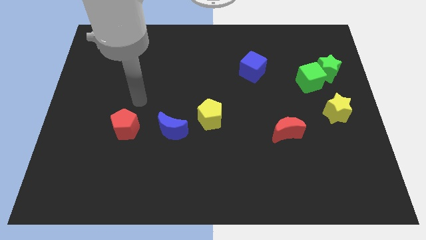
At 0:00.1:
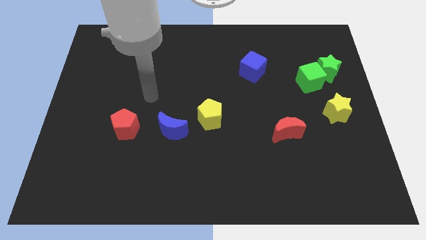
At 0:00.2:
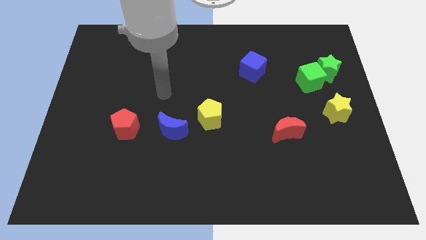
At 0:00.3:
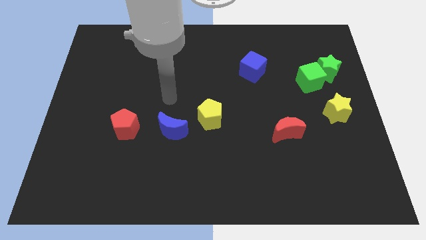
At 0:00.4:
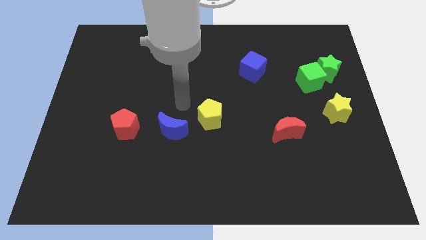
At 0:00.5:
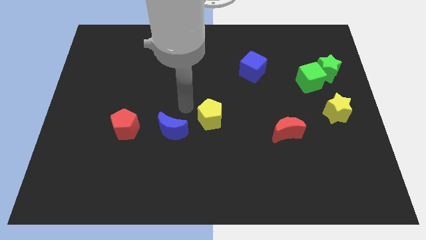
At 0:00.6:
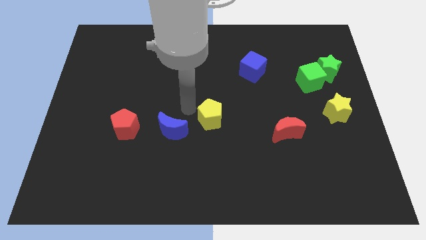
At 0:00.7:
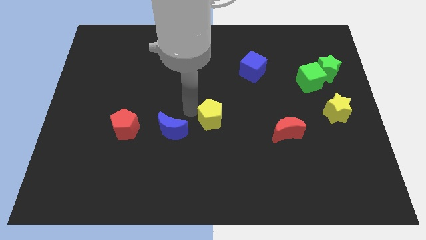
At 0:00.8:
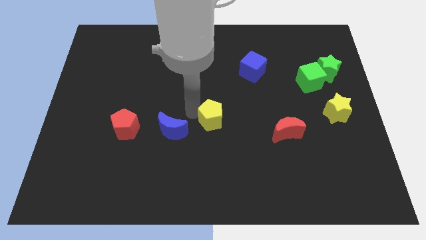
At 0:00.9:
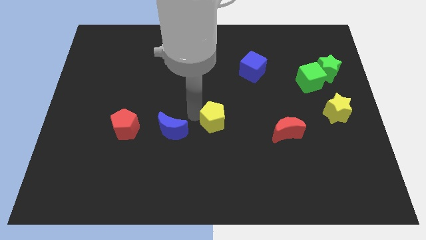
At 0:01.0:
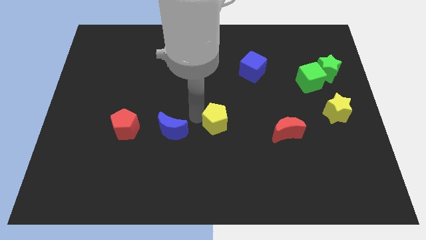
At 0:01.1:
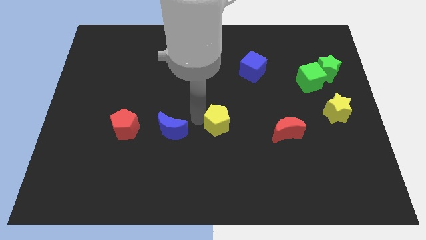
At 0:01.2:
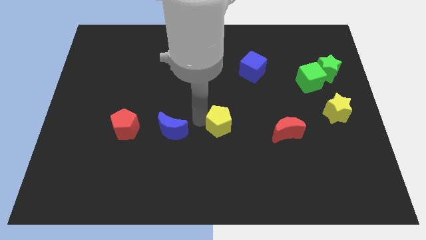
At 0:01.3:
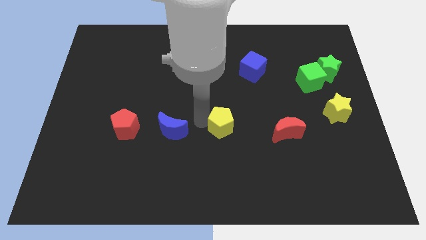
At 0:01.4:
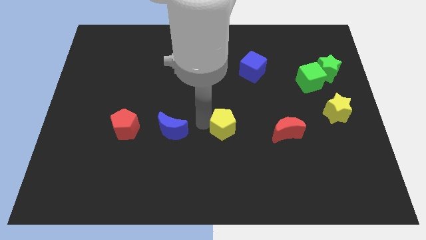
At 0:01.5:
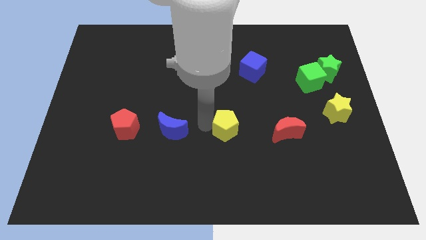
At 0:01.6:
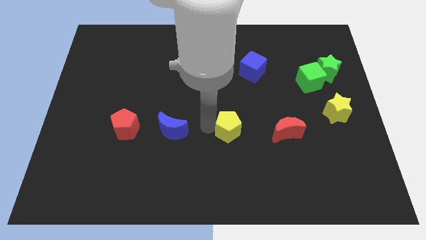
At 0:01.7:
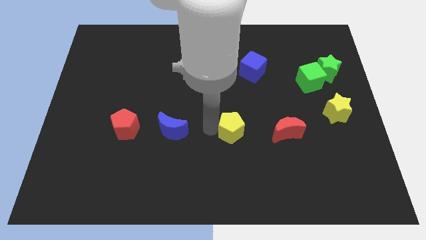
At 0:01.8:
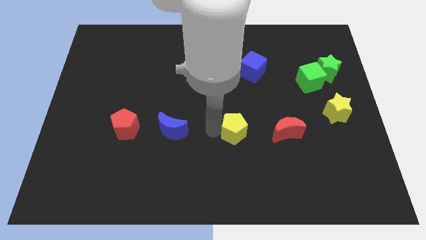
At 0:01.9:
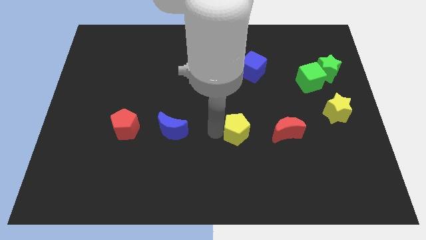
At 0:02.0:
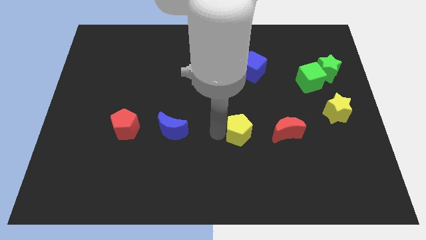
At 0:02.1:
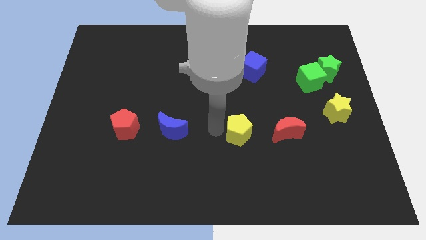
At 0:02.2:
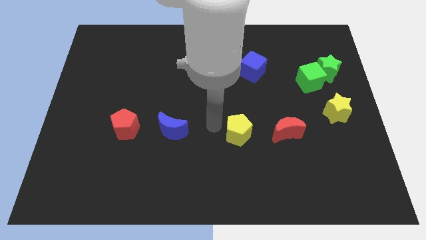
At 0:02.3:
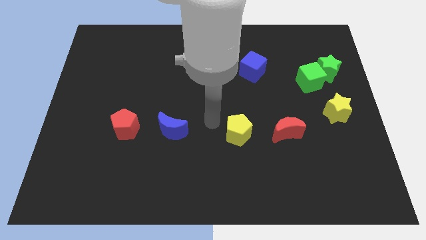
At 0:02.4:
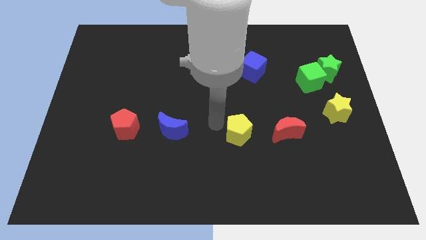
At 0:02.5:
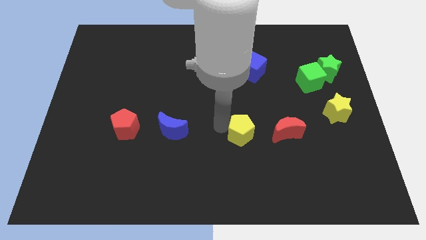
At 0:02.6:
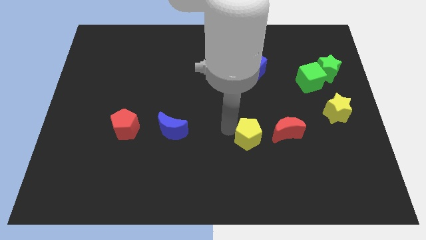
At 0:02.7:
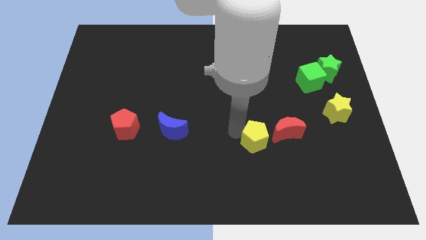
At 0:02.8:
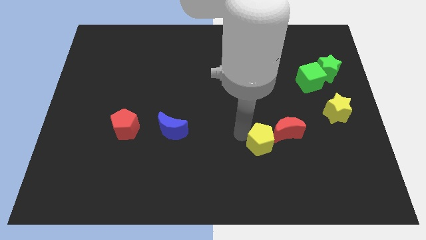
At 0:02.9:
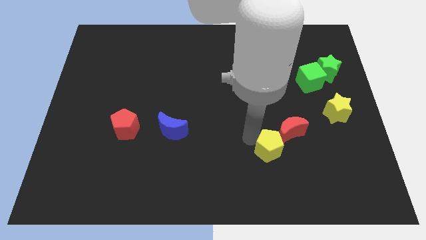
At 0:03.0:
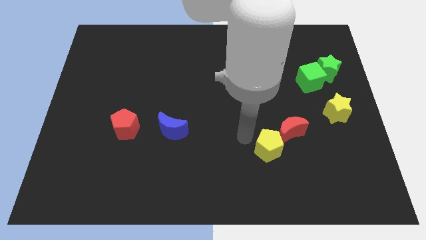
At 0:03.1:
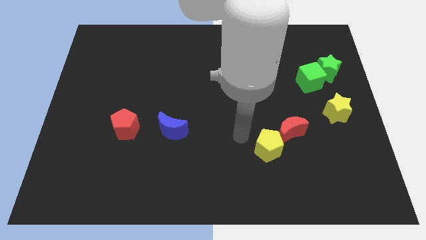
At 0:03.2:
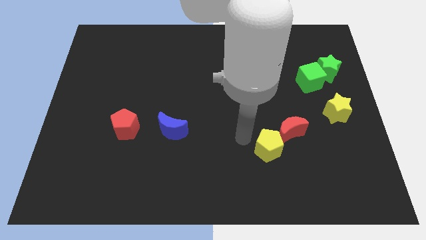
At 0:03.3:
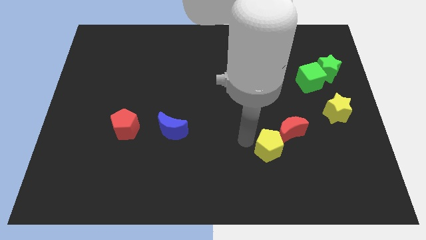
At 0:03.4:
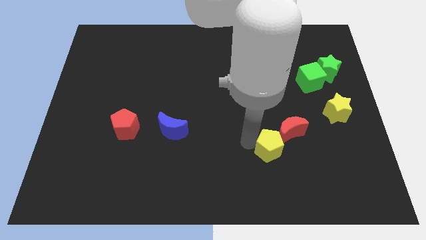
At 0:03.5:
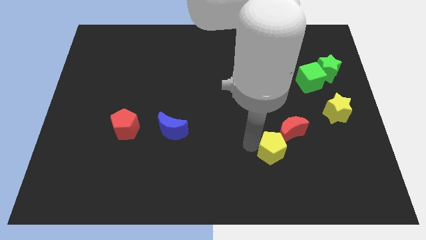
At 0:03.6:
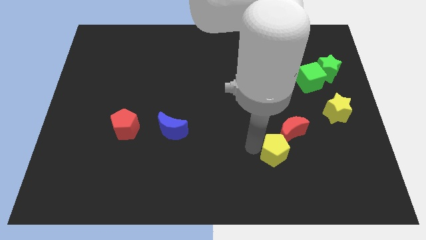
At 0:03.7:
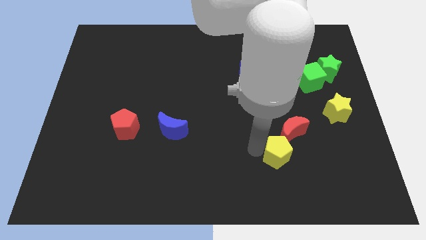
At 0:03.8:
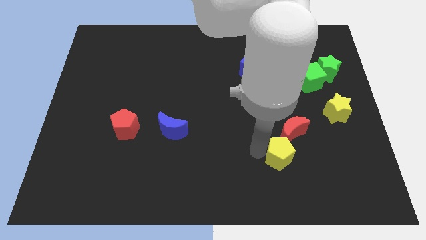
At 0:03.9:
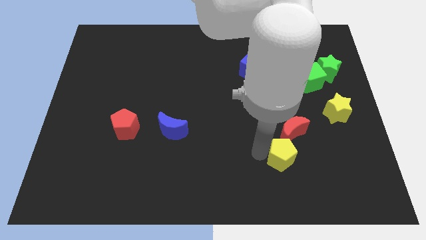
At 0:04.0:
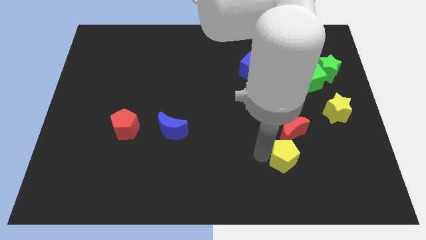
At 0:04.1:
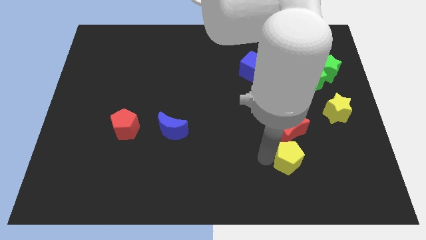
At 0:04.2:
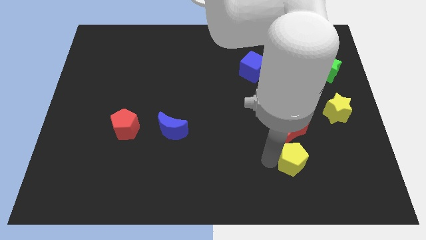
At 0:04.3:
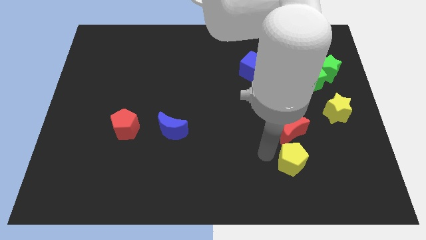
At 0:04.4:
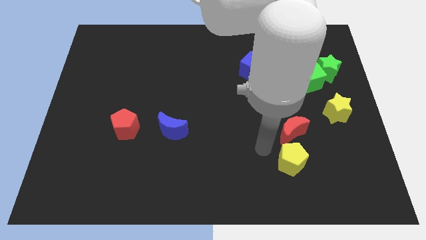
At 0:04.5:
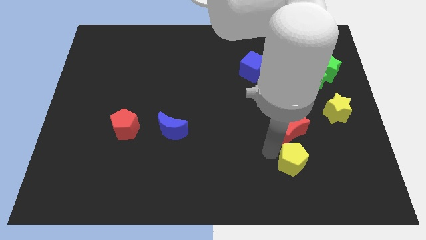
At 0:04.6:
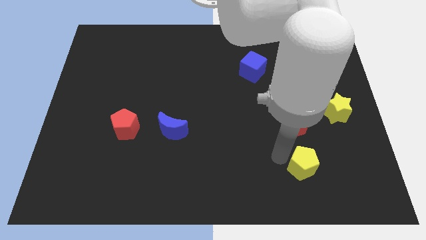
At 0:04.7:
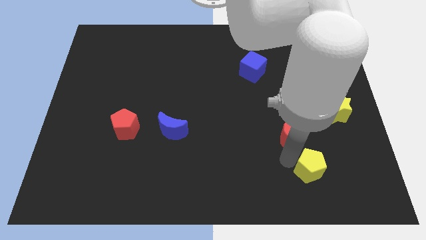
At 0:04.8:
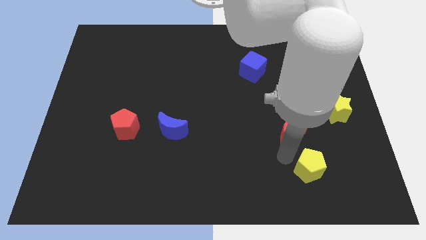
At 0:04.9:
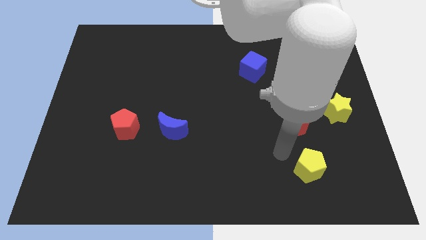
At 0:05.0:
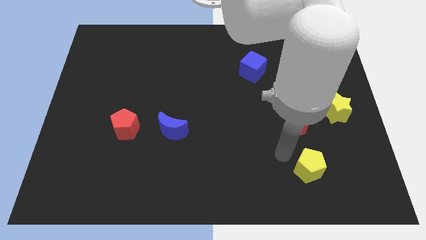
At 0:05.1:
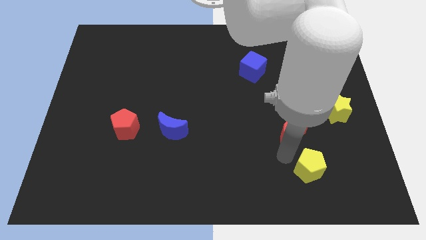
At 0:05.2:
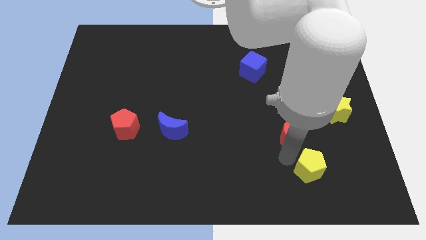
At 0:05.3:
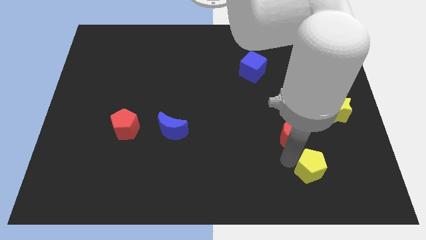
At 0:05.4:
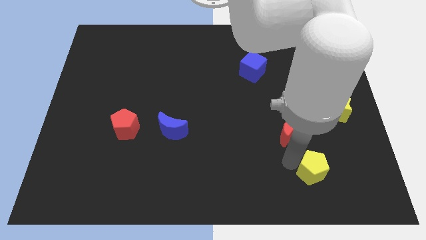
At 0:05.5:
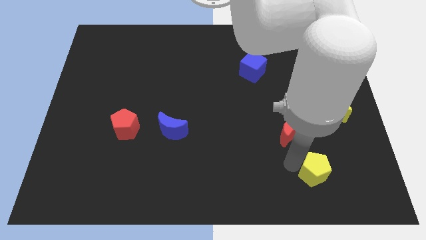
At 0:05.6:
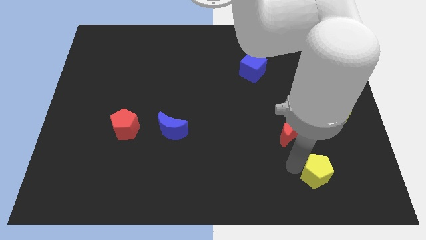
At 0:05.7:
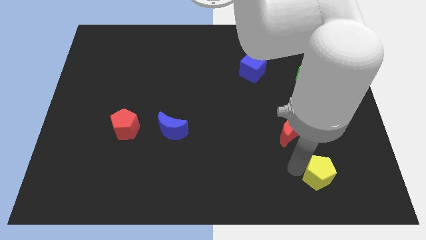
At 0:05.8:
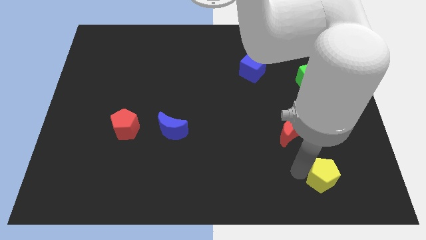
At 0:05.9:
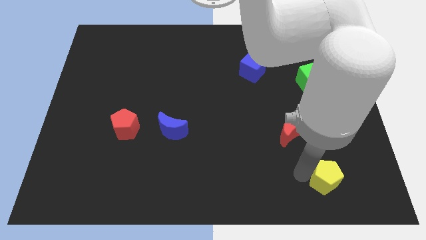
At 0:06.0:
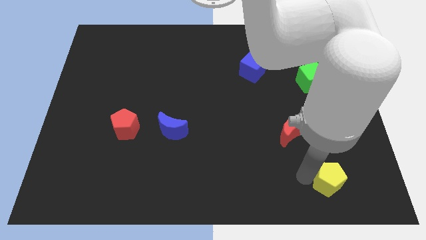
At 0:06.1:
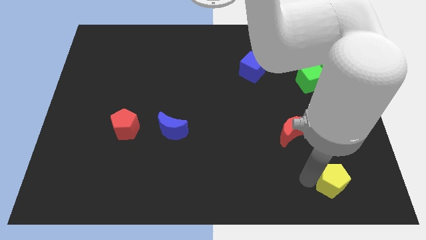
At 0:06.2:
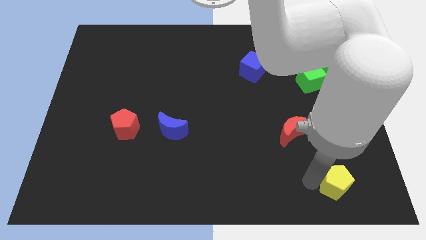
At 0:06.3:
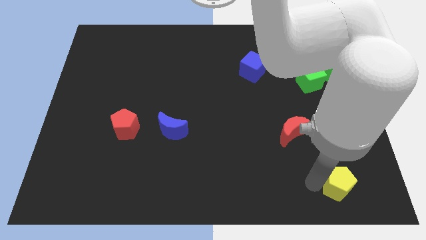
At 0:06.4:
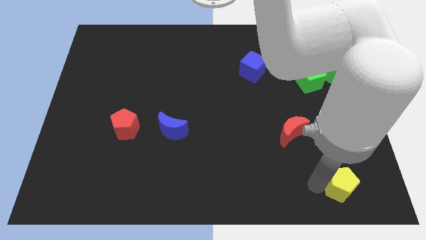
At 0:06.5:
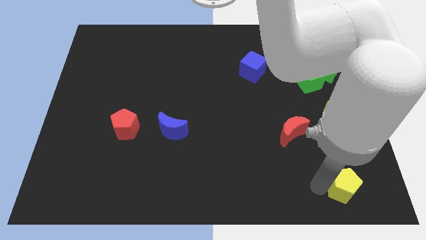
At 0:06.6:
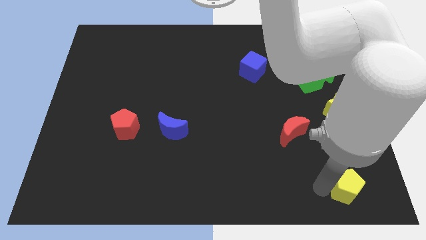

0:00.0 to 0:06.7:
put the yellow pentagon to the bottom right corner
